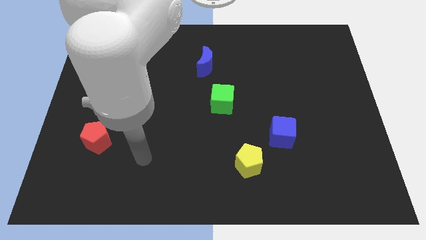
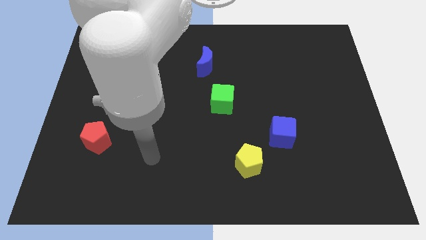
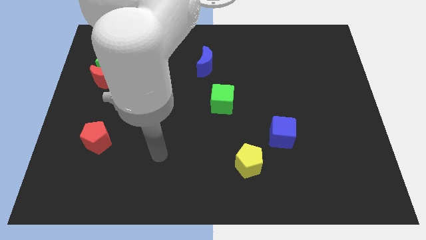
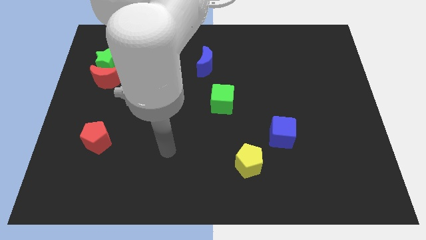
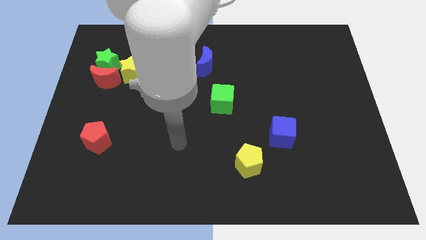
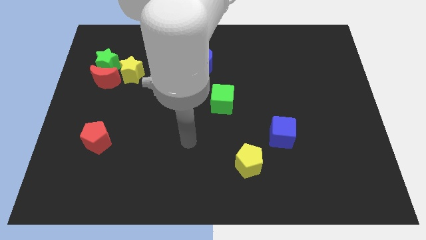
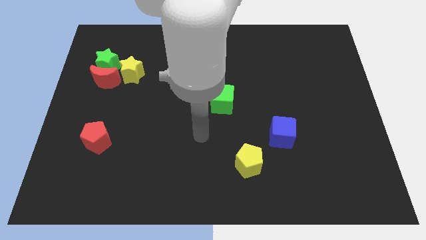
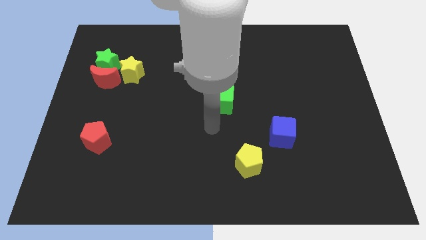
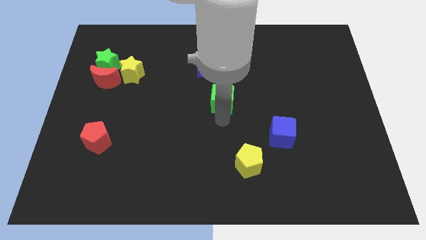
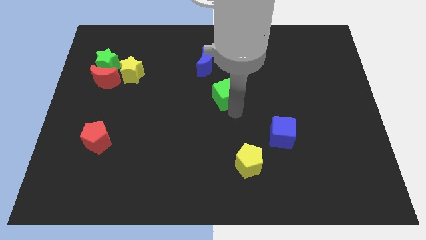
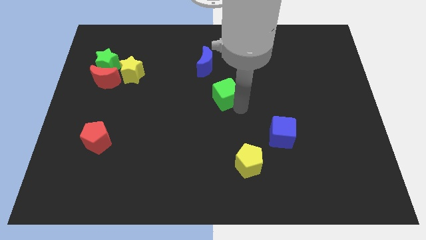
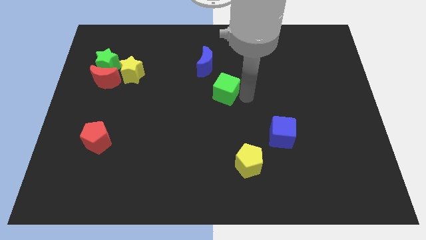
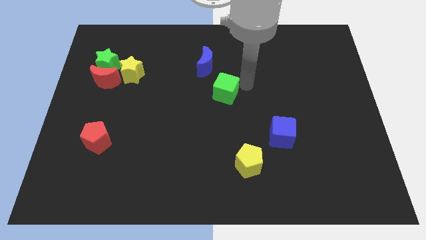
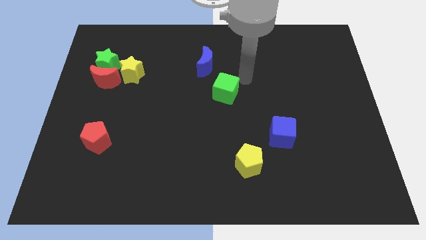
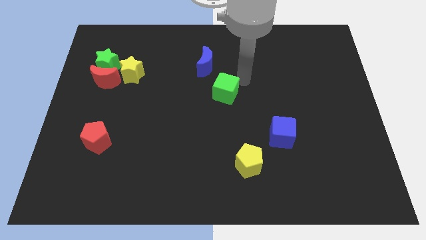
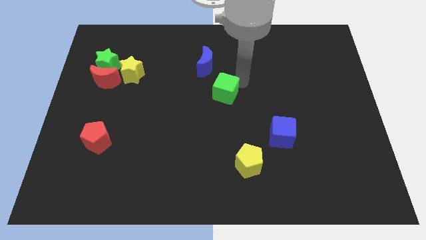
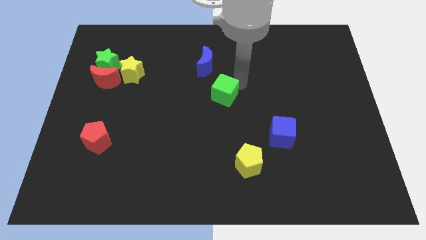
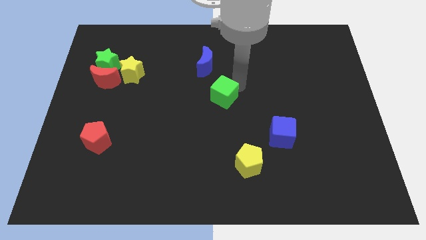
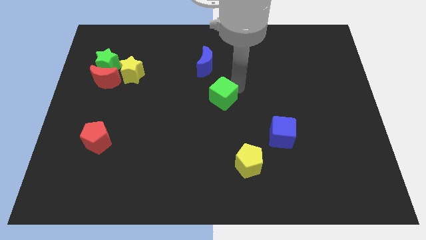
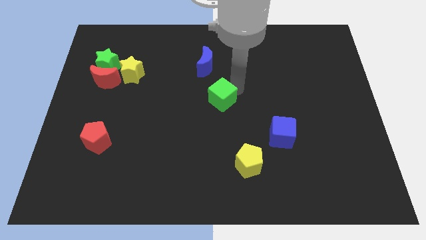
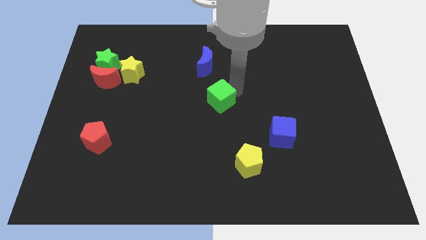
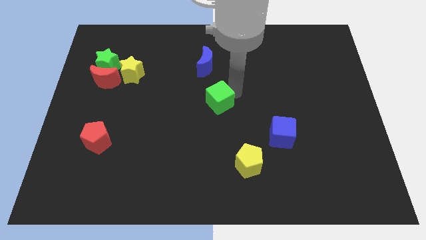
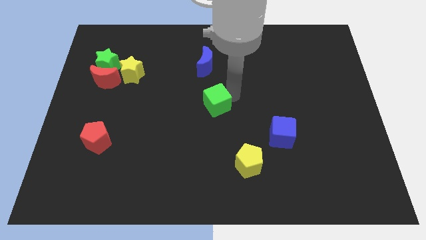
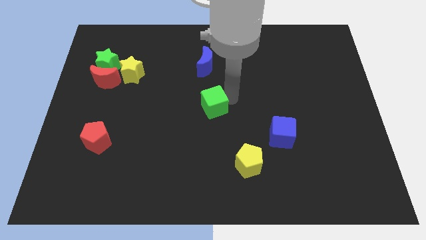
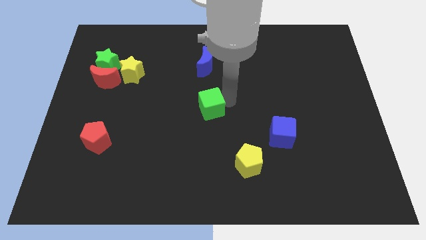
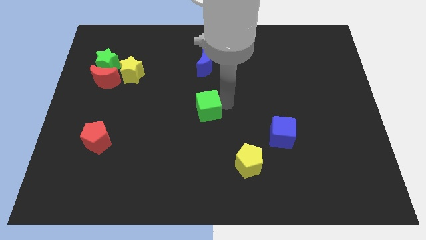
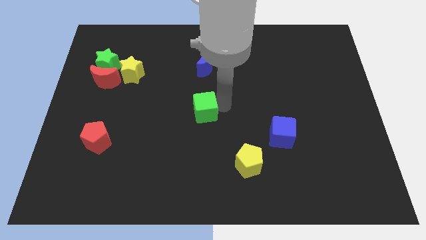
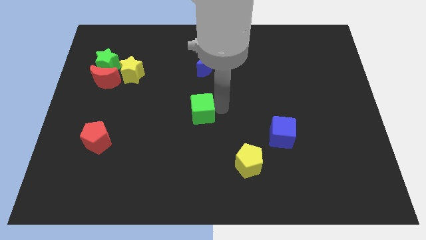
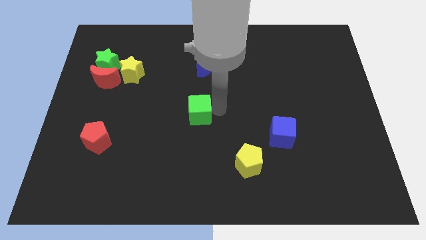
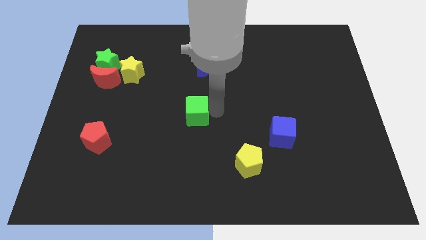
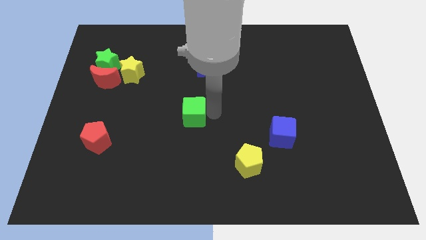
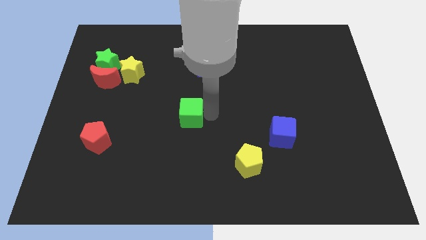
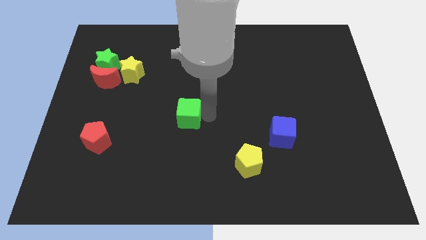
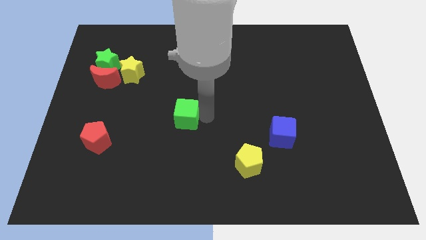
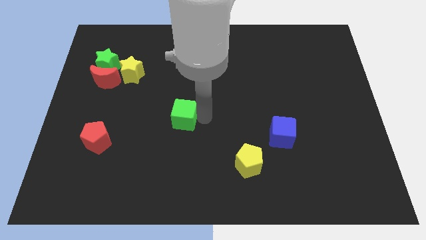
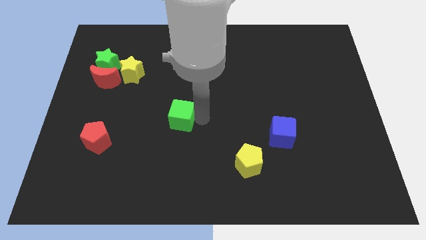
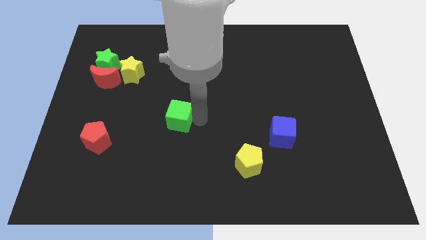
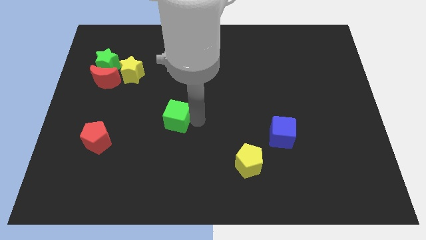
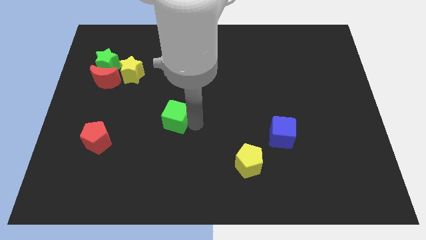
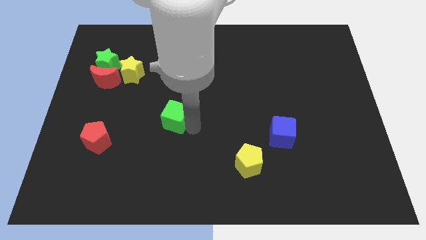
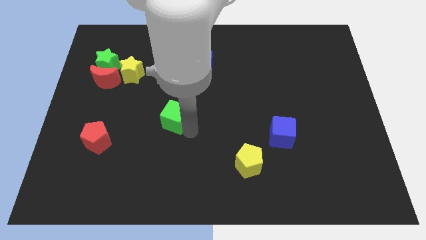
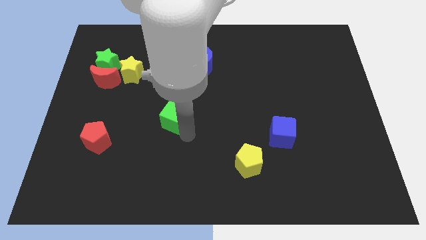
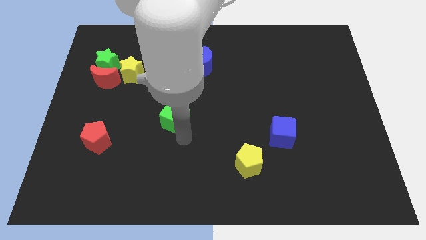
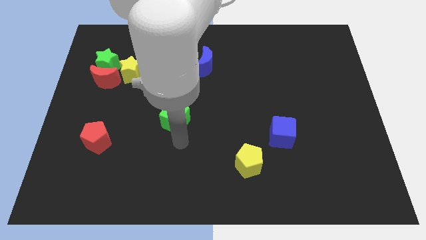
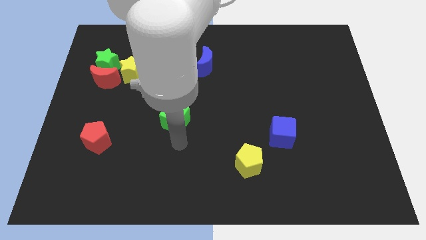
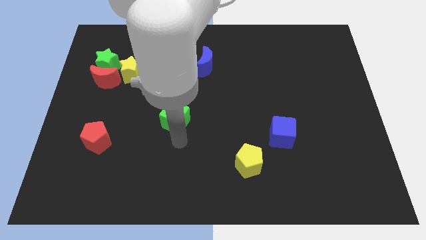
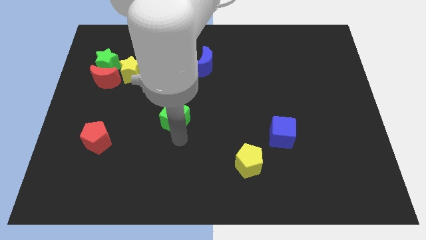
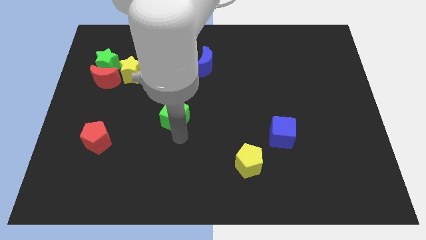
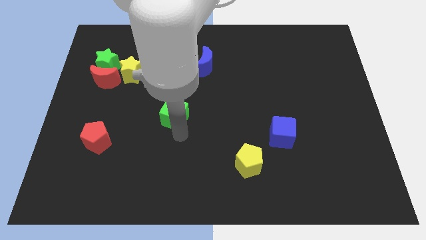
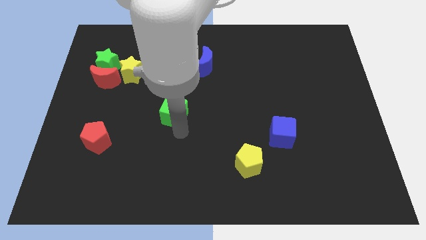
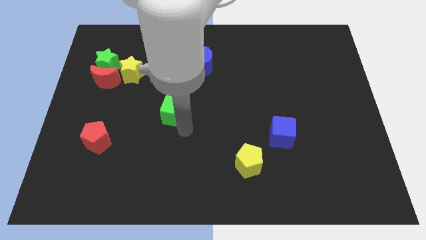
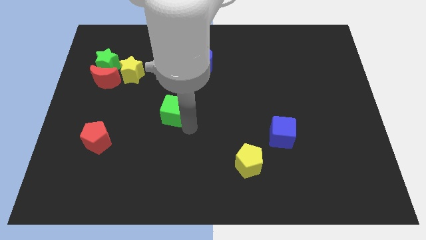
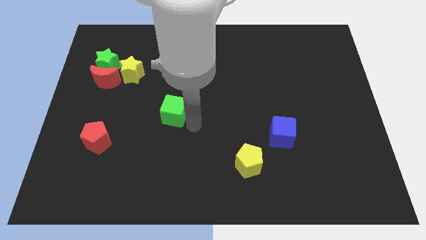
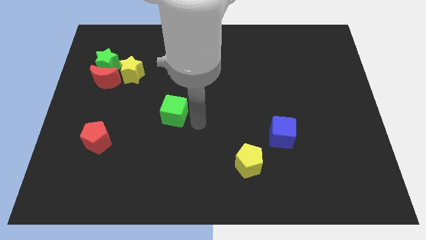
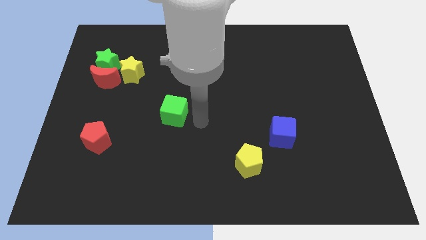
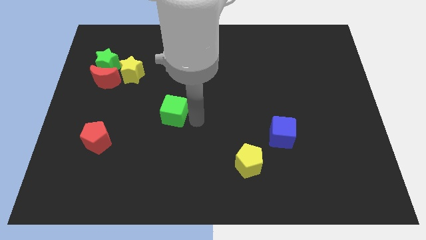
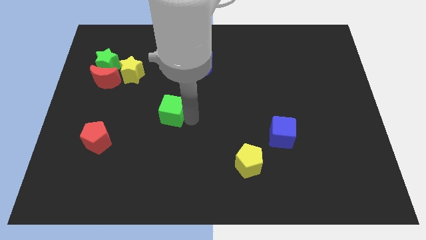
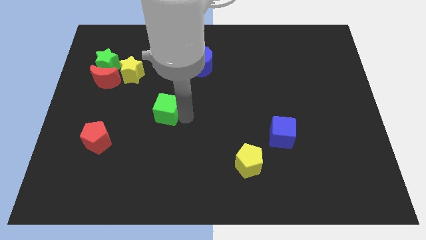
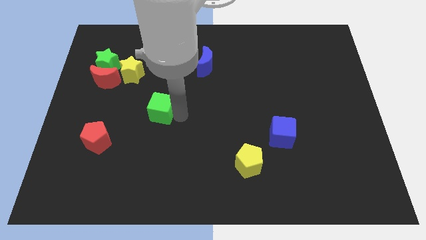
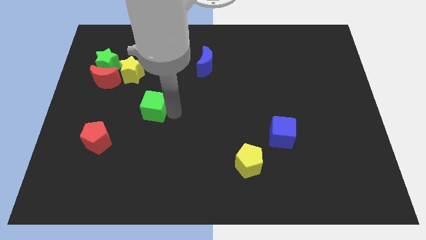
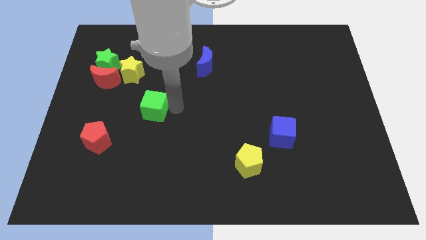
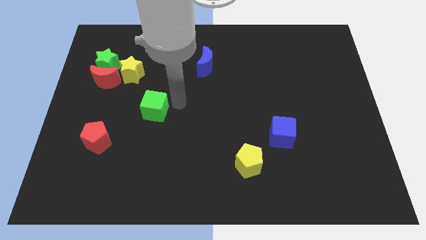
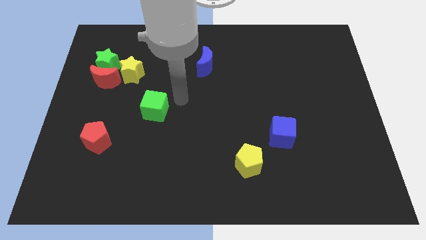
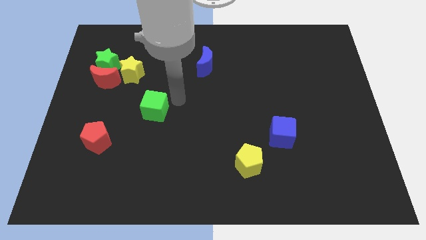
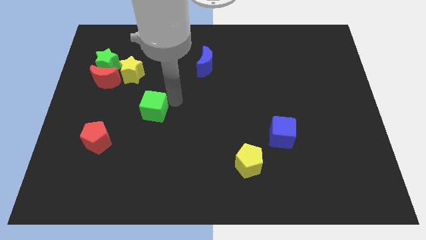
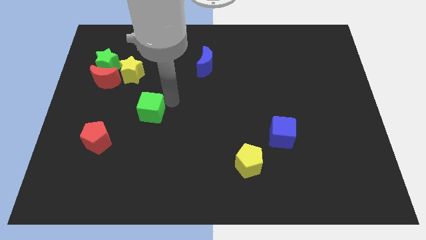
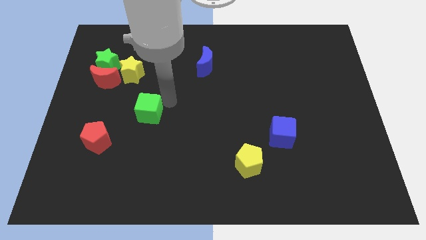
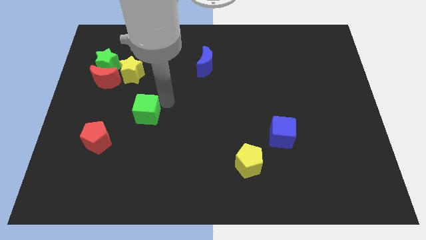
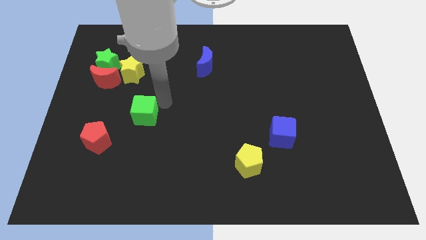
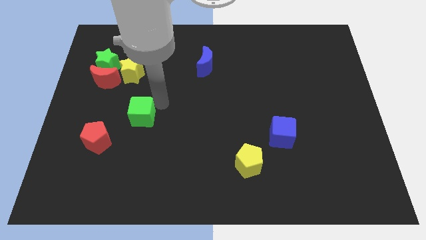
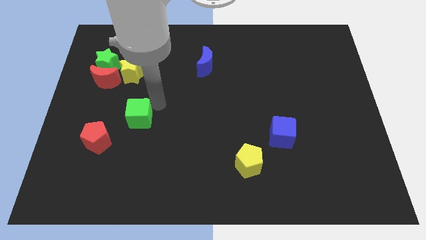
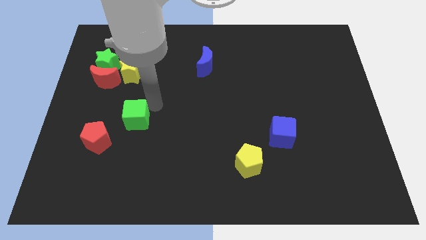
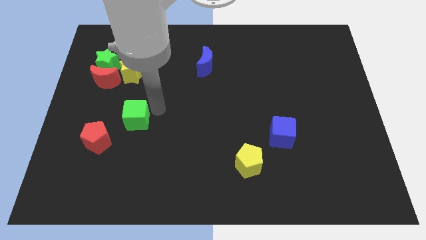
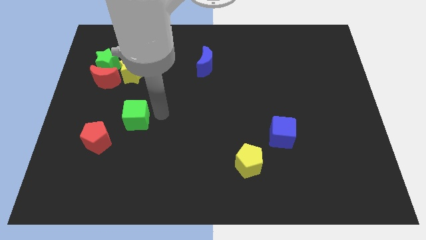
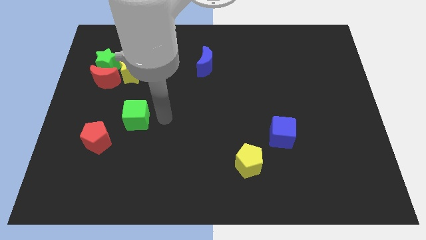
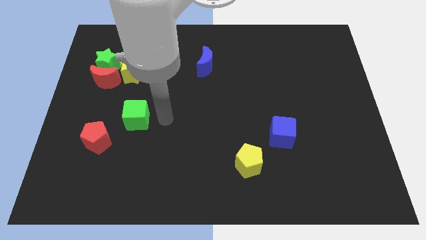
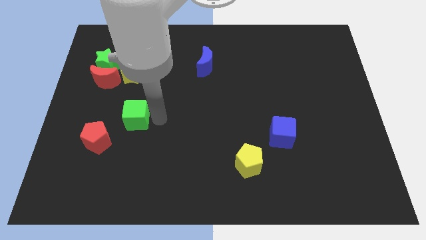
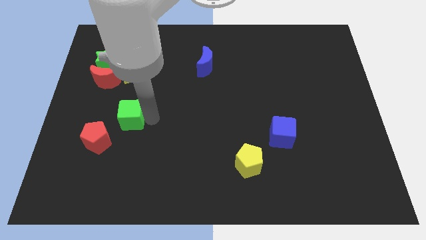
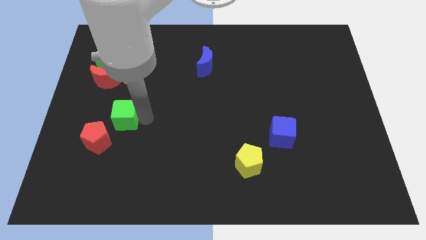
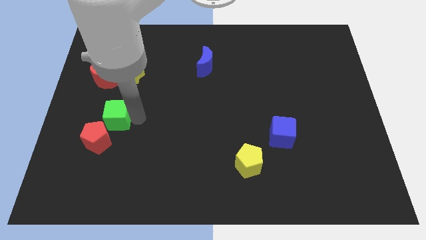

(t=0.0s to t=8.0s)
slide the green cube to the bottom of the red moon
